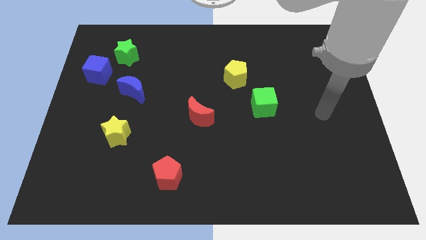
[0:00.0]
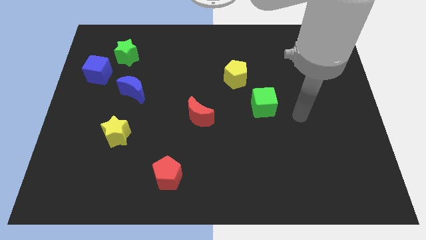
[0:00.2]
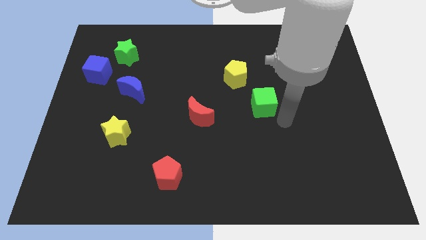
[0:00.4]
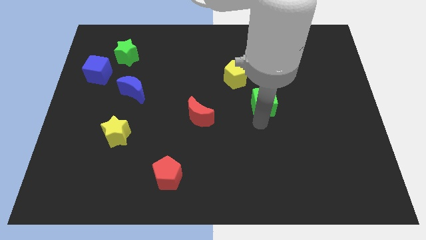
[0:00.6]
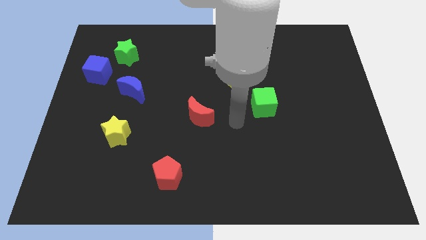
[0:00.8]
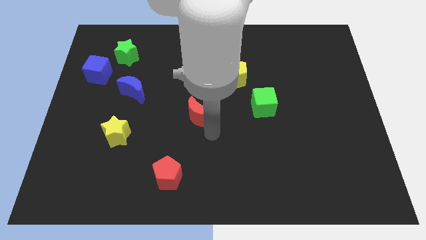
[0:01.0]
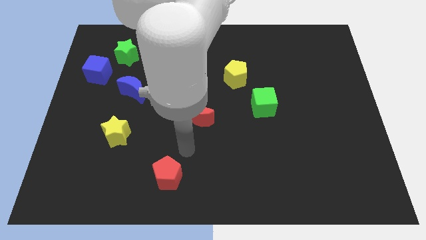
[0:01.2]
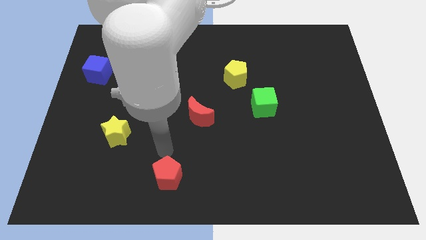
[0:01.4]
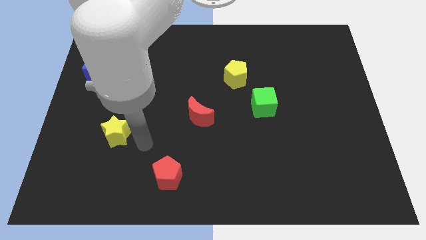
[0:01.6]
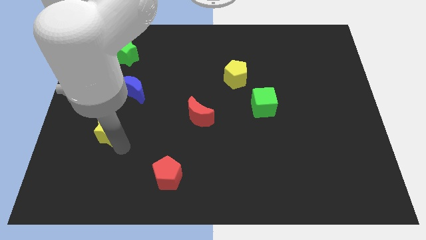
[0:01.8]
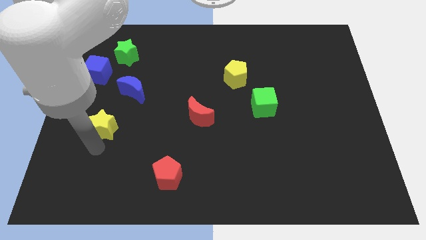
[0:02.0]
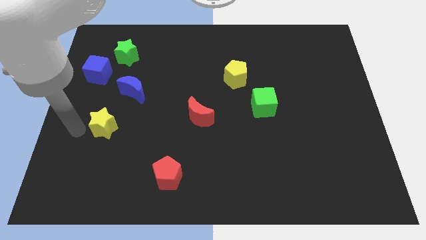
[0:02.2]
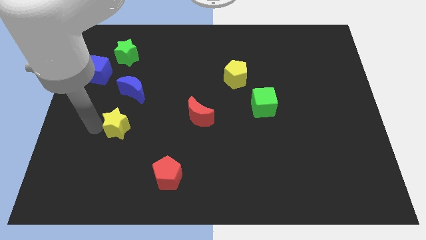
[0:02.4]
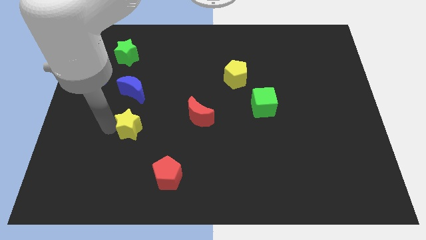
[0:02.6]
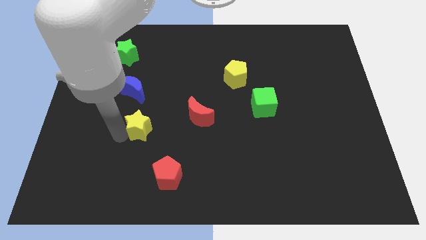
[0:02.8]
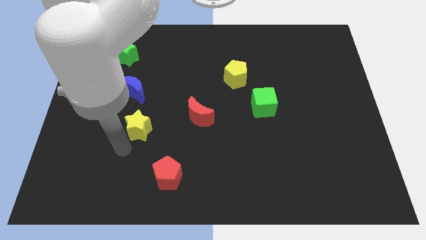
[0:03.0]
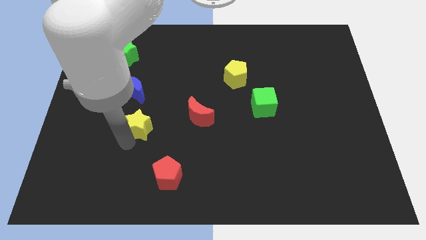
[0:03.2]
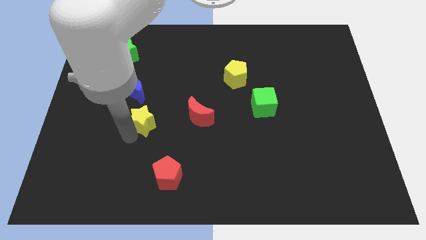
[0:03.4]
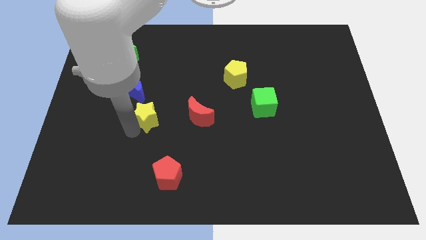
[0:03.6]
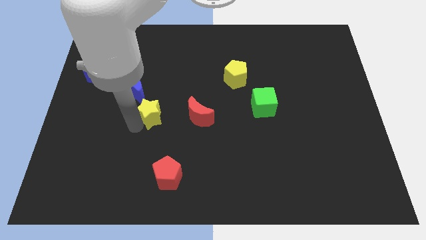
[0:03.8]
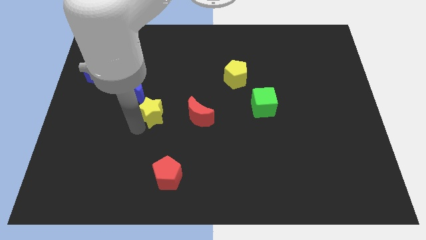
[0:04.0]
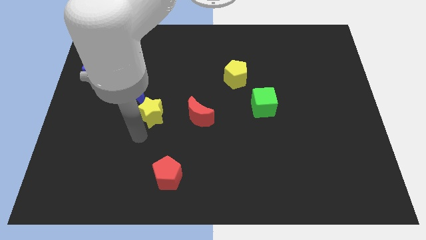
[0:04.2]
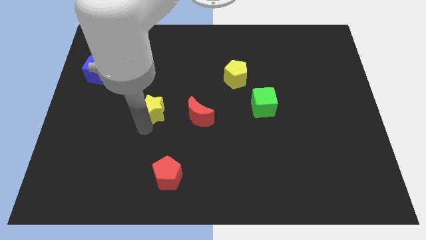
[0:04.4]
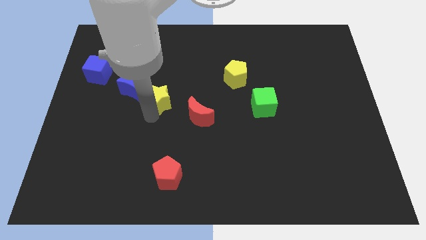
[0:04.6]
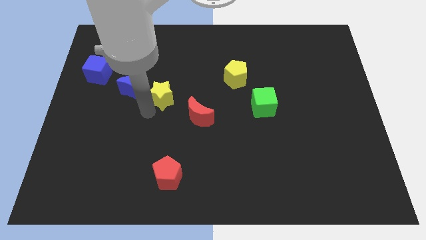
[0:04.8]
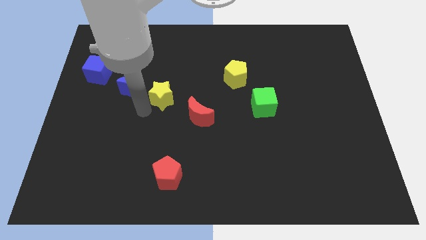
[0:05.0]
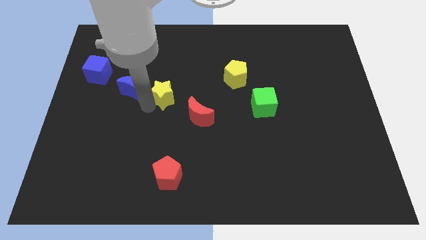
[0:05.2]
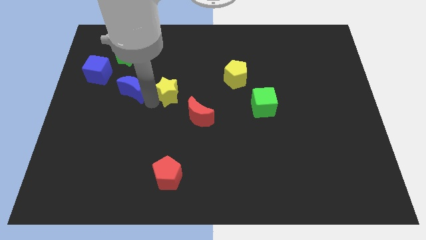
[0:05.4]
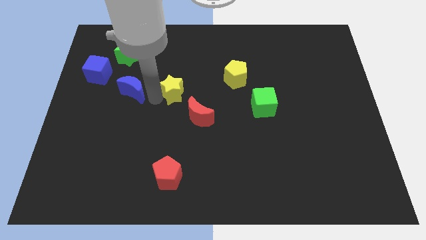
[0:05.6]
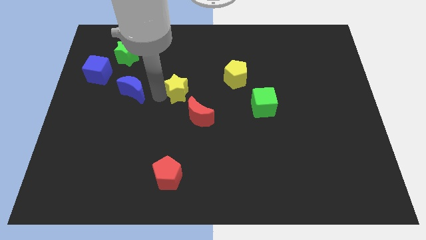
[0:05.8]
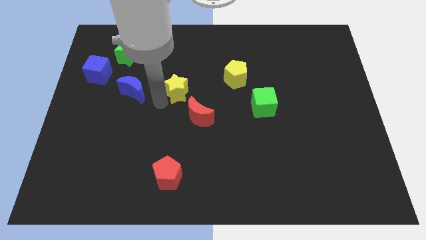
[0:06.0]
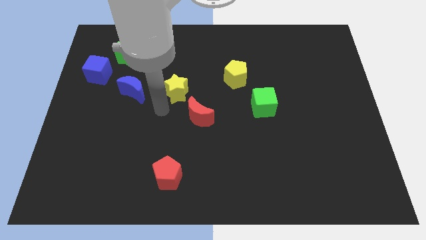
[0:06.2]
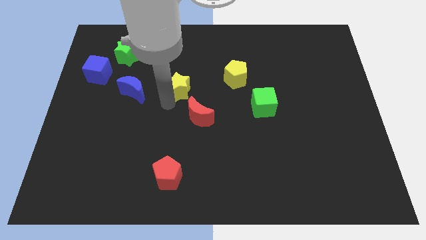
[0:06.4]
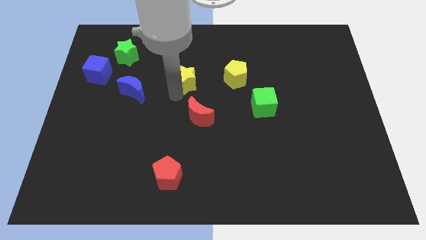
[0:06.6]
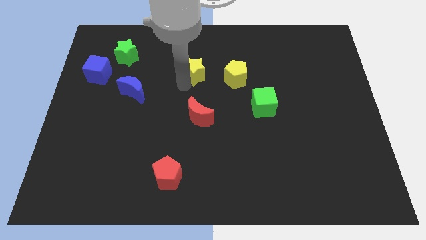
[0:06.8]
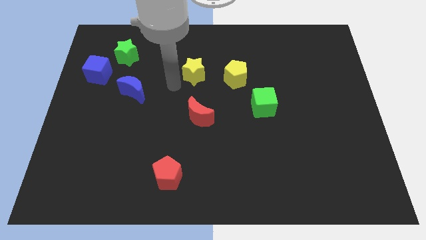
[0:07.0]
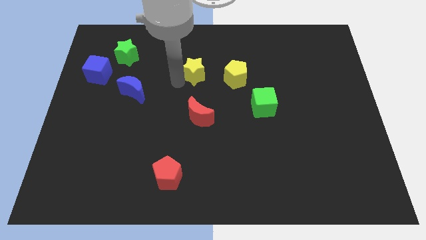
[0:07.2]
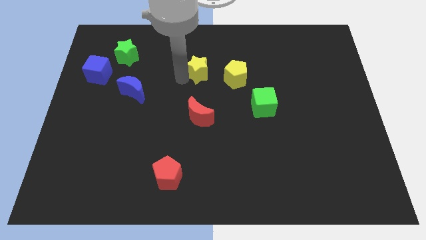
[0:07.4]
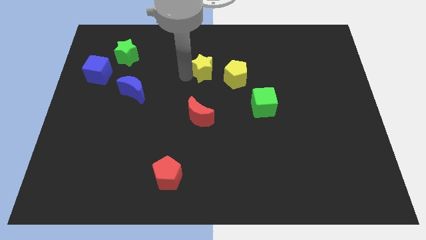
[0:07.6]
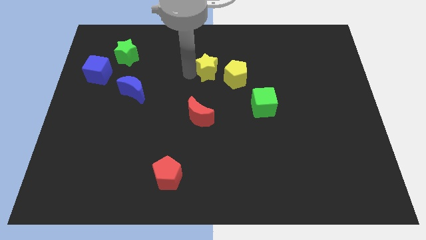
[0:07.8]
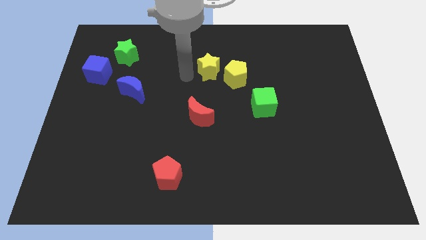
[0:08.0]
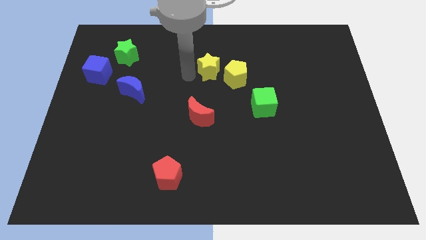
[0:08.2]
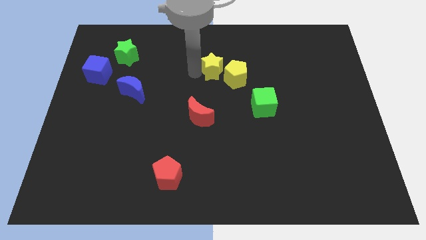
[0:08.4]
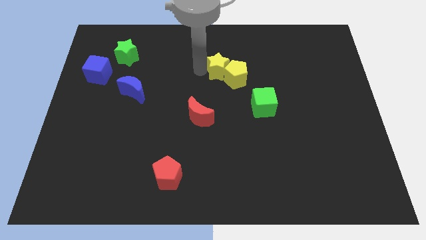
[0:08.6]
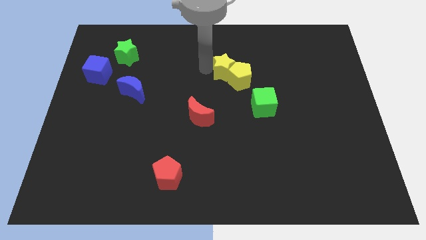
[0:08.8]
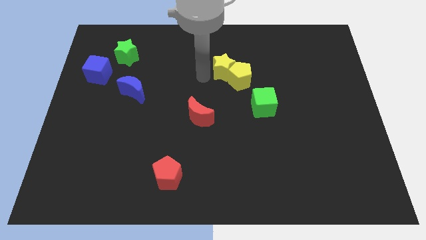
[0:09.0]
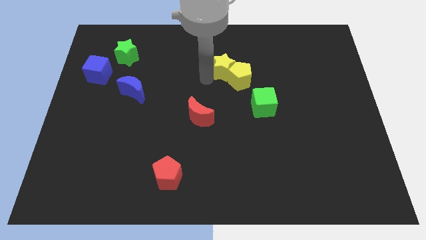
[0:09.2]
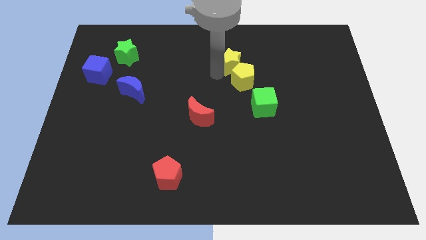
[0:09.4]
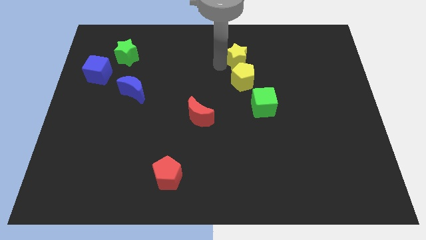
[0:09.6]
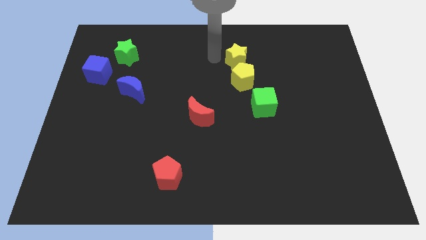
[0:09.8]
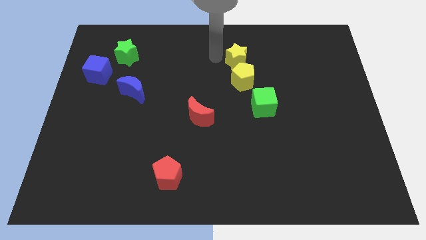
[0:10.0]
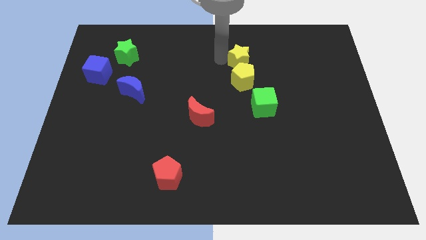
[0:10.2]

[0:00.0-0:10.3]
move the yellow star to the top right of the yellow pentagon

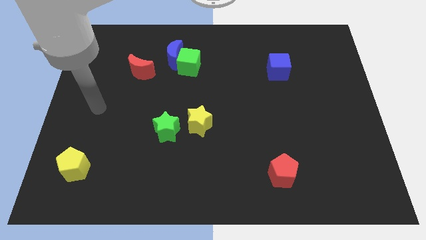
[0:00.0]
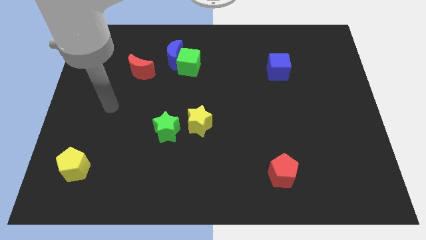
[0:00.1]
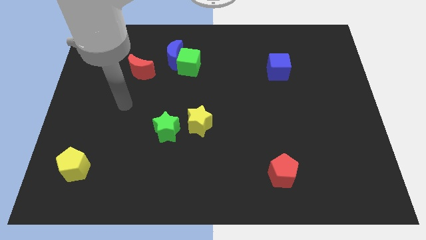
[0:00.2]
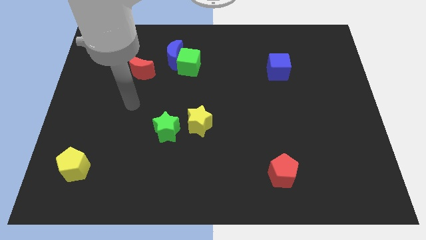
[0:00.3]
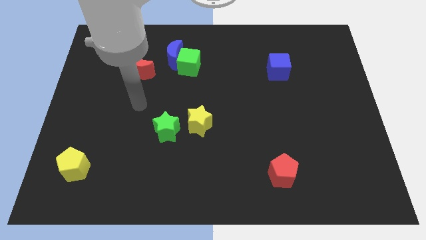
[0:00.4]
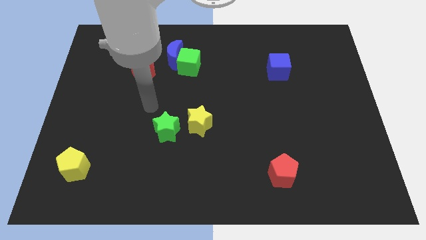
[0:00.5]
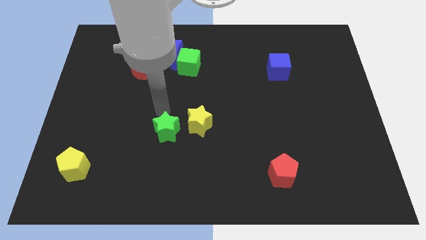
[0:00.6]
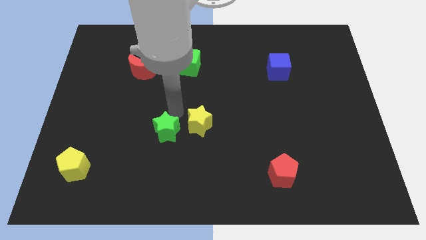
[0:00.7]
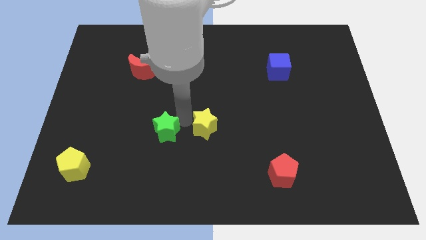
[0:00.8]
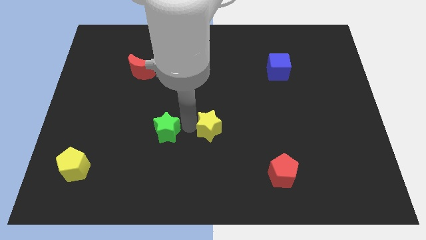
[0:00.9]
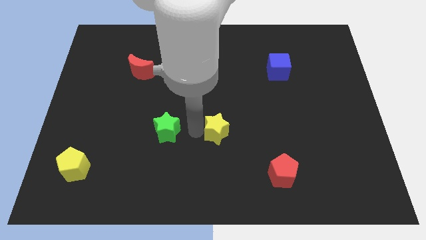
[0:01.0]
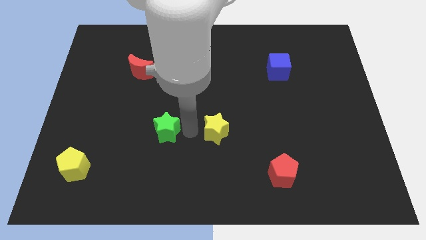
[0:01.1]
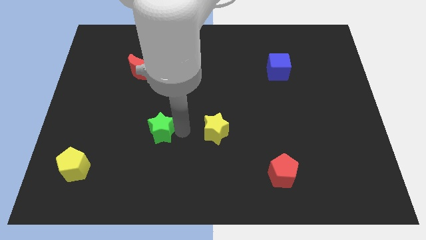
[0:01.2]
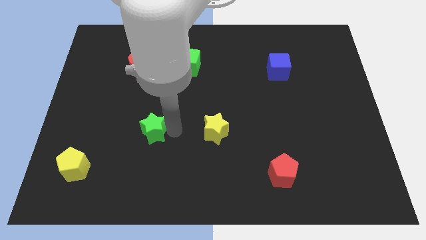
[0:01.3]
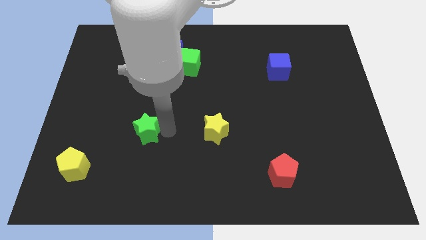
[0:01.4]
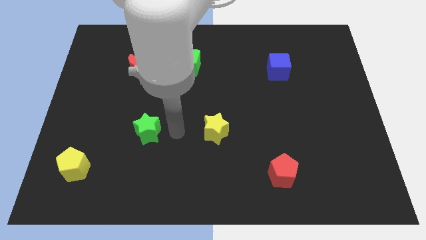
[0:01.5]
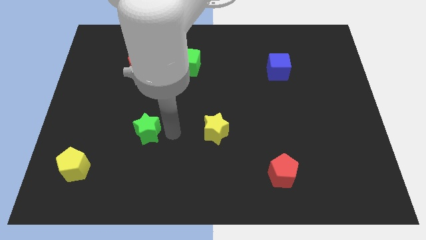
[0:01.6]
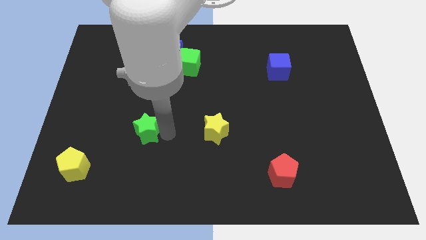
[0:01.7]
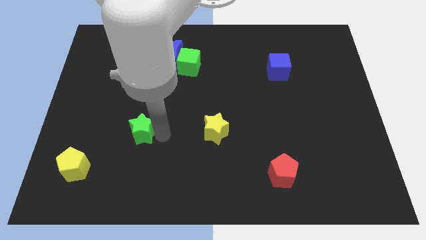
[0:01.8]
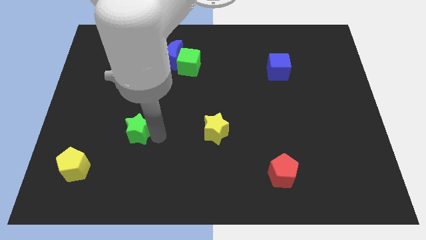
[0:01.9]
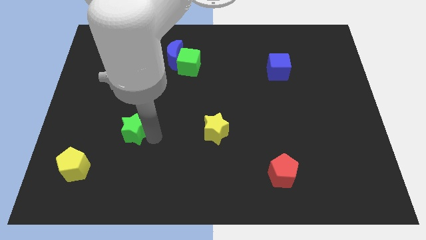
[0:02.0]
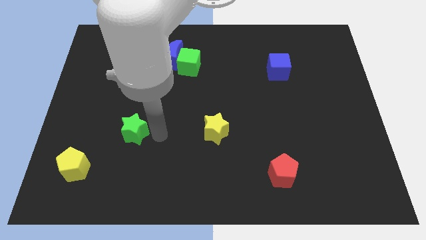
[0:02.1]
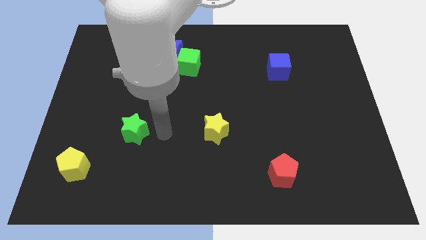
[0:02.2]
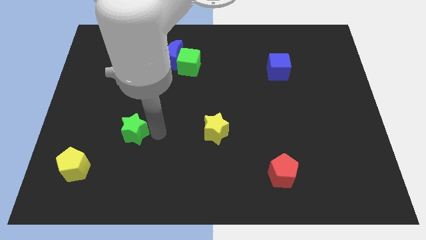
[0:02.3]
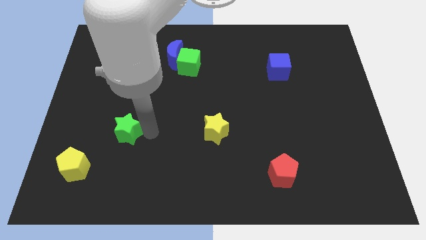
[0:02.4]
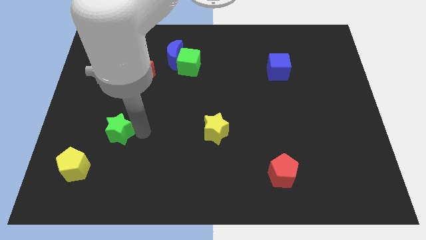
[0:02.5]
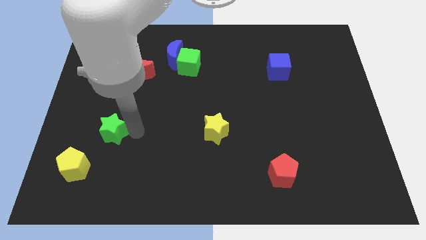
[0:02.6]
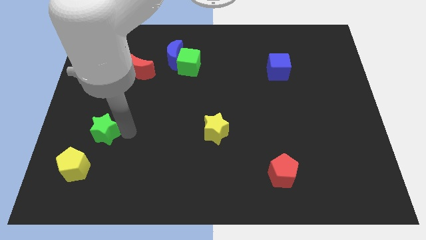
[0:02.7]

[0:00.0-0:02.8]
push the green star above the yellow pentagon

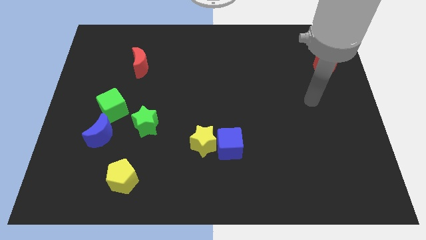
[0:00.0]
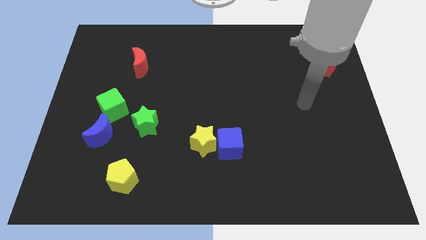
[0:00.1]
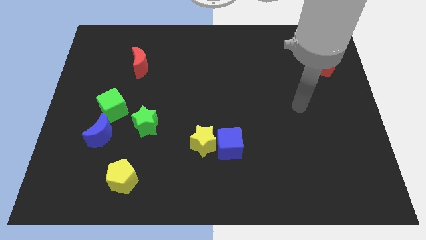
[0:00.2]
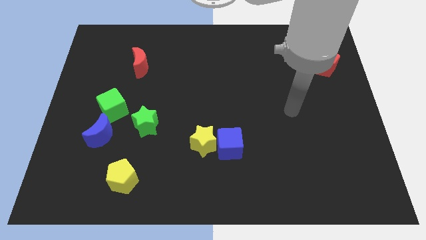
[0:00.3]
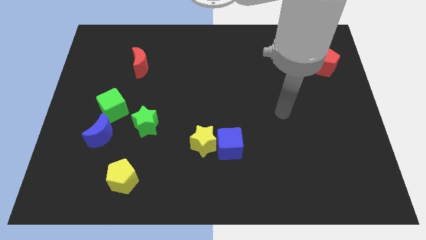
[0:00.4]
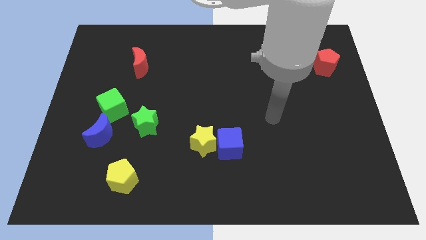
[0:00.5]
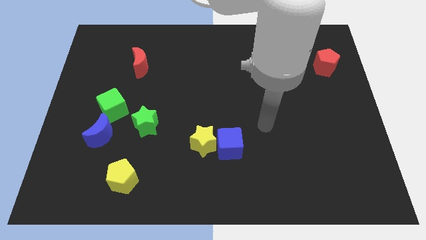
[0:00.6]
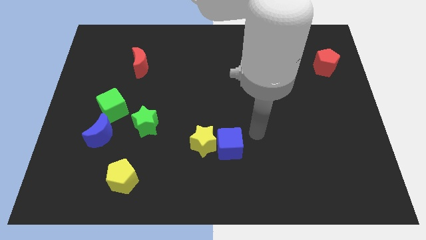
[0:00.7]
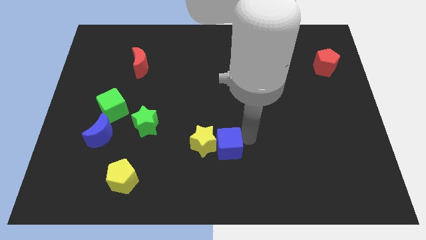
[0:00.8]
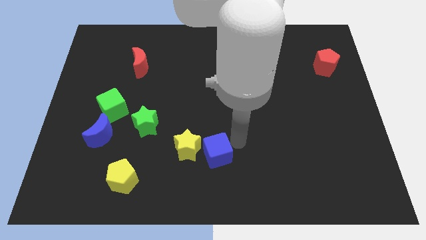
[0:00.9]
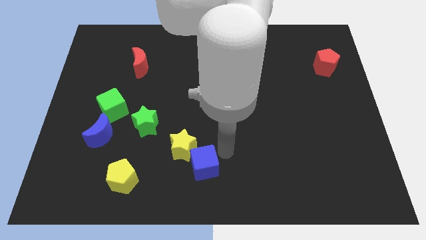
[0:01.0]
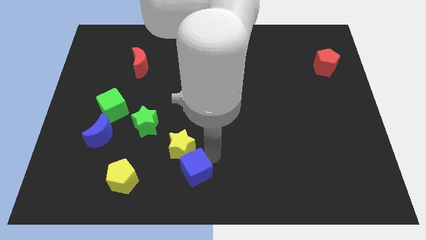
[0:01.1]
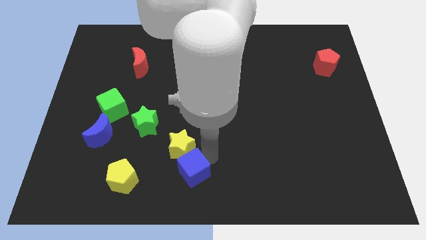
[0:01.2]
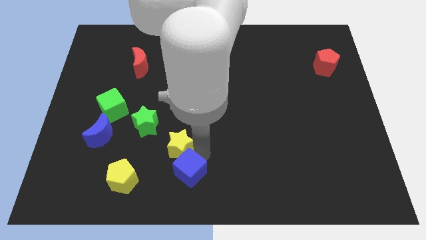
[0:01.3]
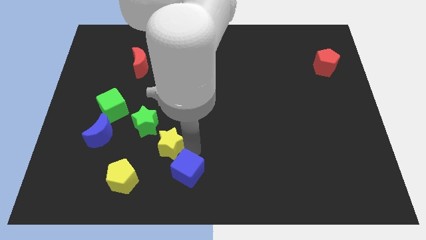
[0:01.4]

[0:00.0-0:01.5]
move the yellow star to the right of the blue moon
